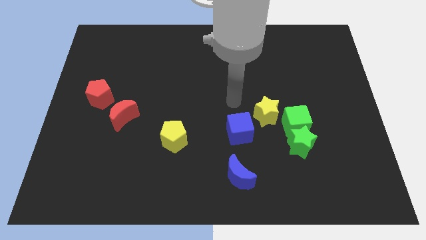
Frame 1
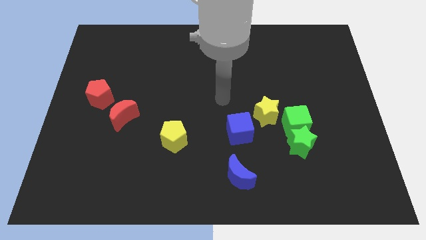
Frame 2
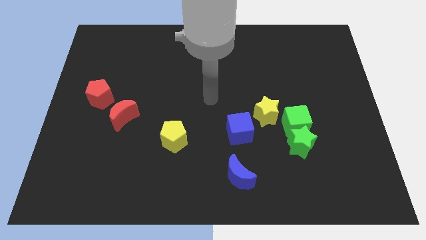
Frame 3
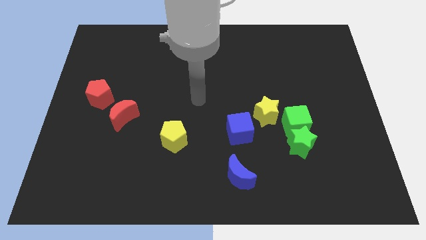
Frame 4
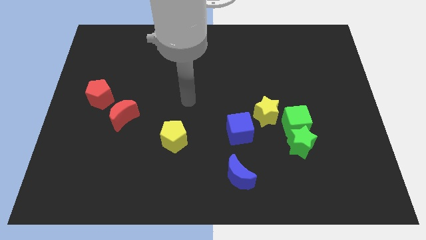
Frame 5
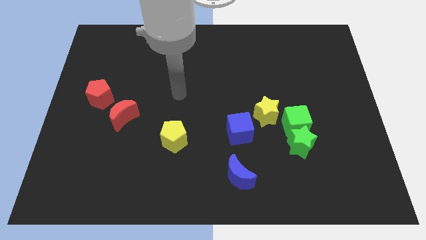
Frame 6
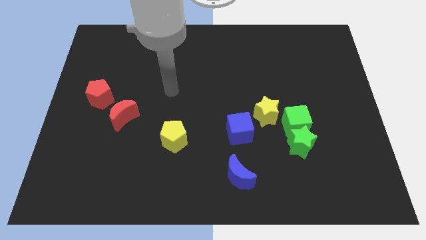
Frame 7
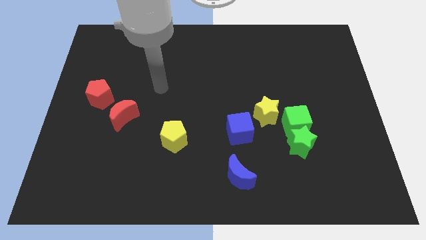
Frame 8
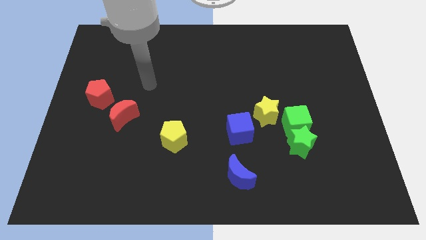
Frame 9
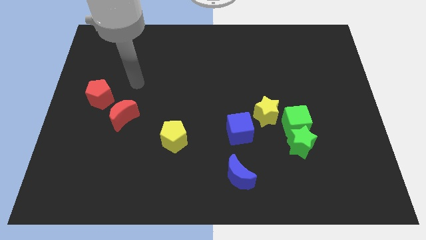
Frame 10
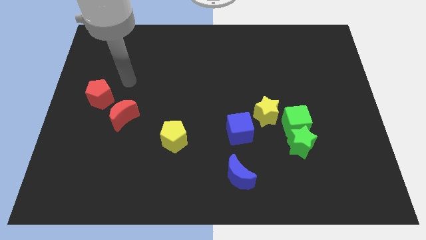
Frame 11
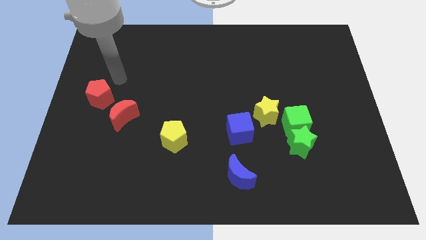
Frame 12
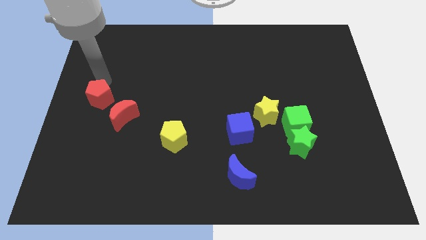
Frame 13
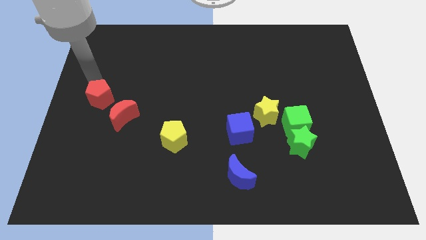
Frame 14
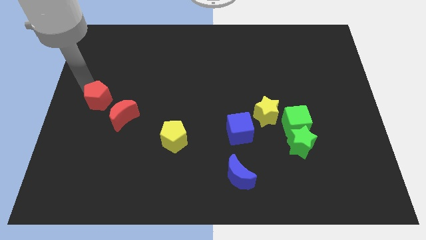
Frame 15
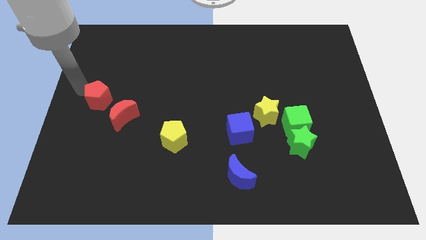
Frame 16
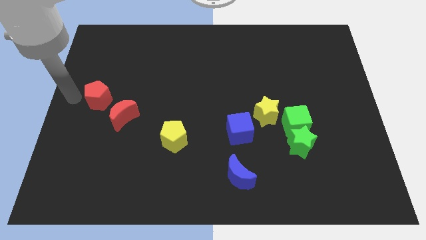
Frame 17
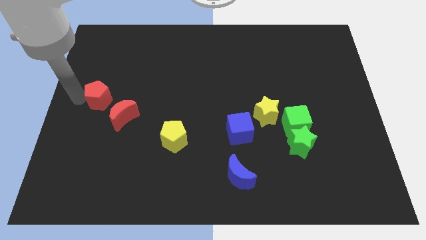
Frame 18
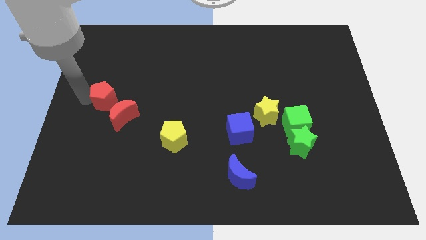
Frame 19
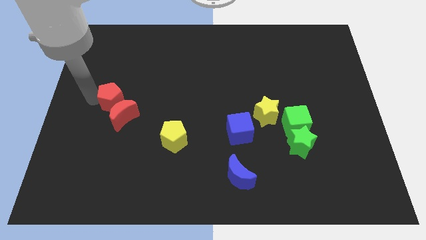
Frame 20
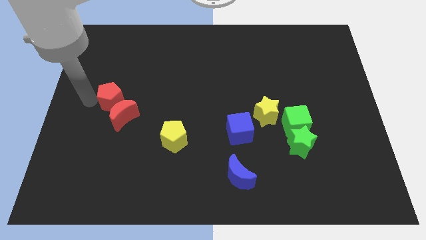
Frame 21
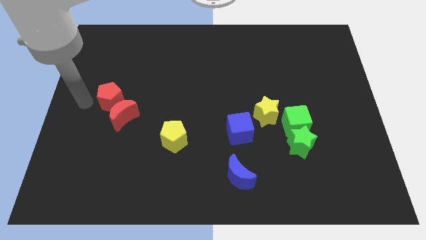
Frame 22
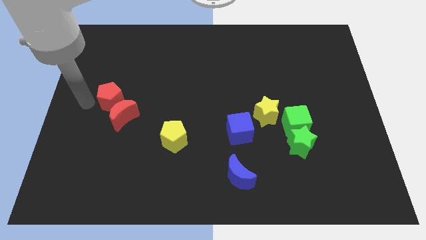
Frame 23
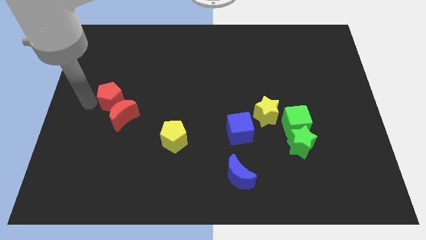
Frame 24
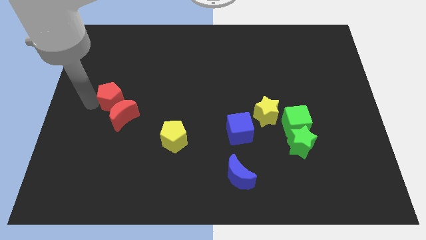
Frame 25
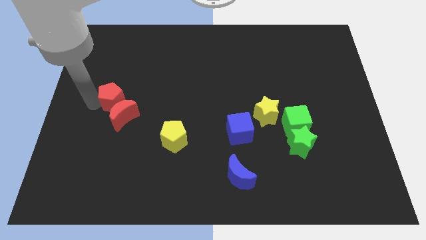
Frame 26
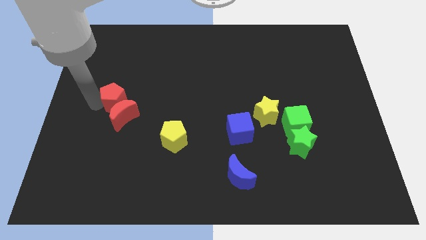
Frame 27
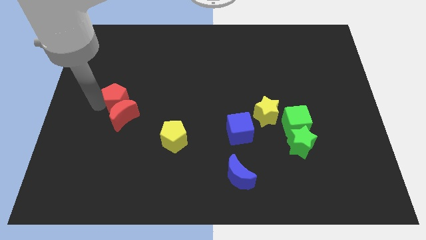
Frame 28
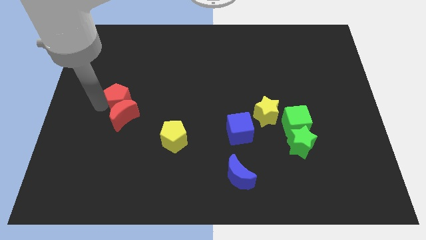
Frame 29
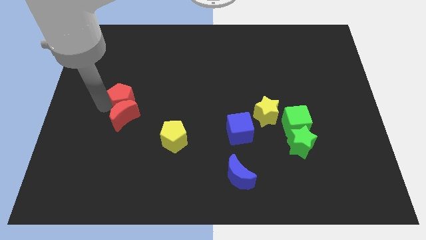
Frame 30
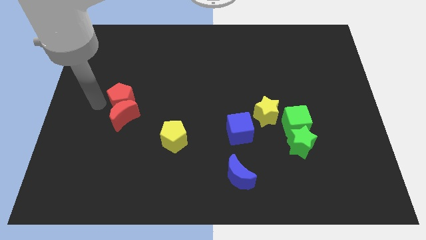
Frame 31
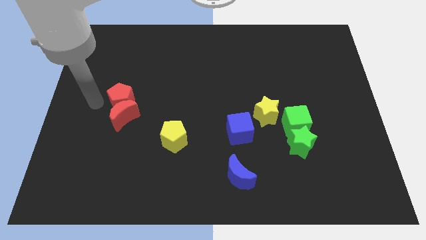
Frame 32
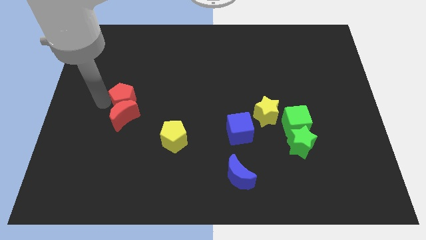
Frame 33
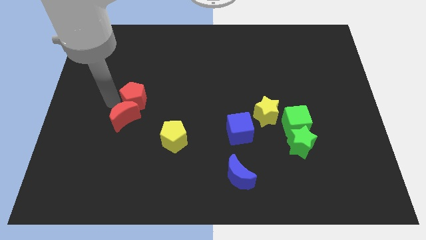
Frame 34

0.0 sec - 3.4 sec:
move the red pentagon right a little bit

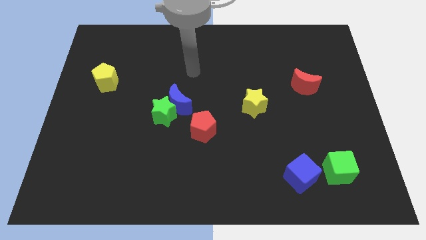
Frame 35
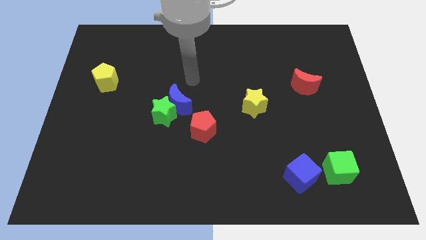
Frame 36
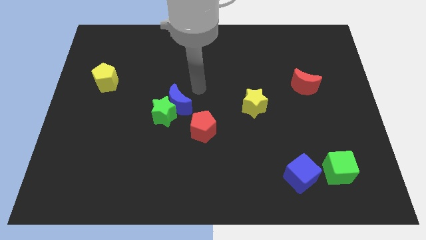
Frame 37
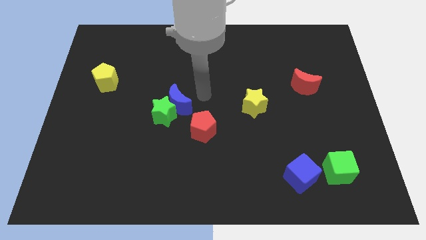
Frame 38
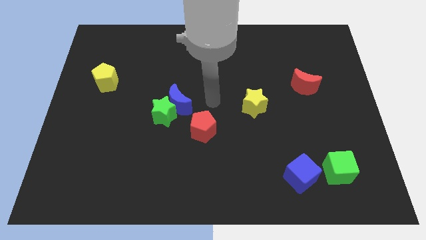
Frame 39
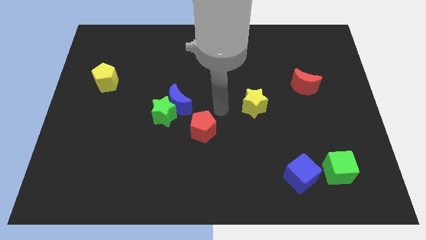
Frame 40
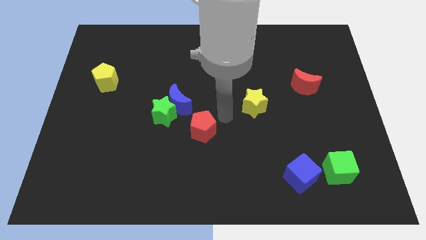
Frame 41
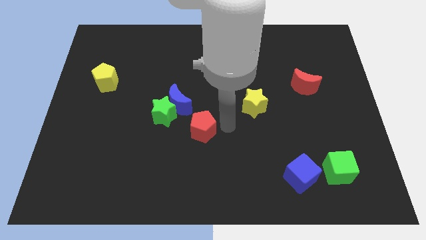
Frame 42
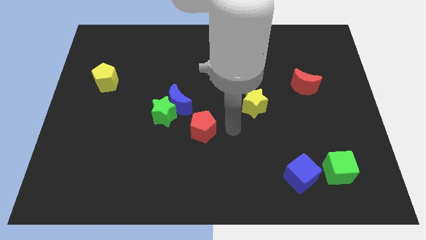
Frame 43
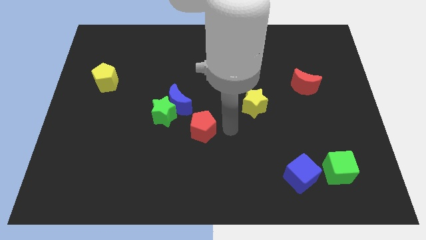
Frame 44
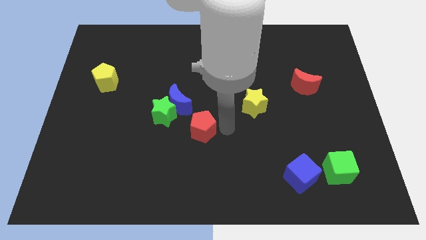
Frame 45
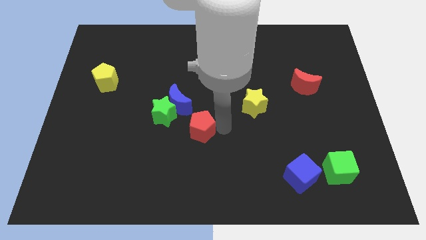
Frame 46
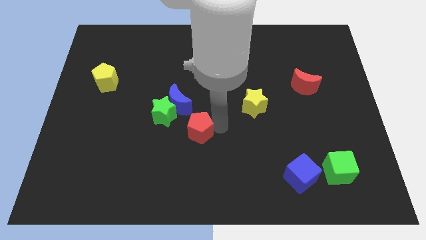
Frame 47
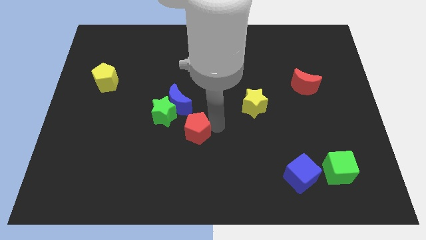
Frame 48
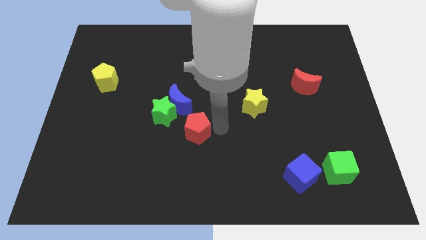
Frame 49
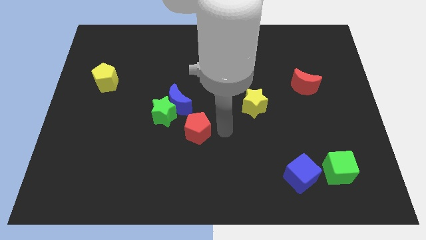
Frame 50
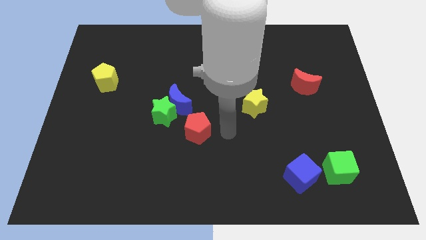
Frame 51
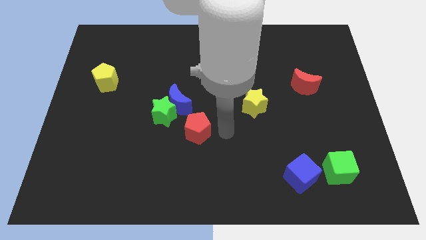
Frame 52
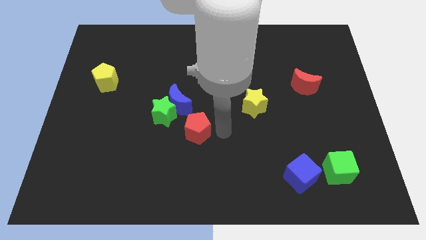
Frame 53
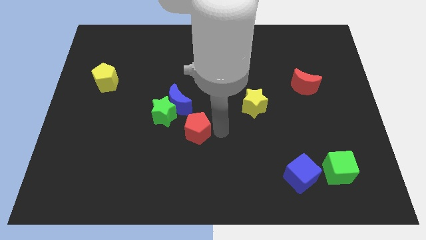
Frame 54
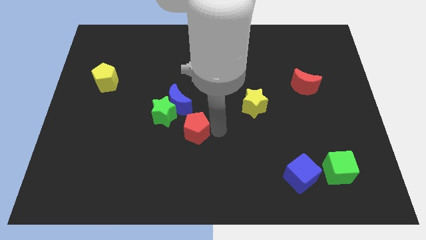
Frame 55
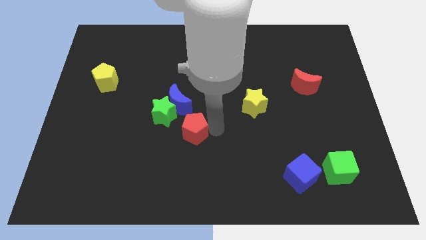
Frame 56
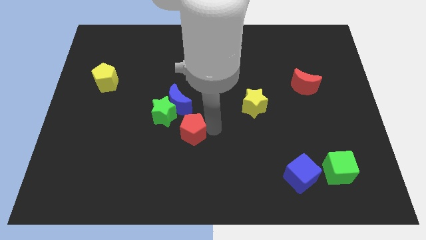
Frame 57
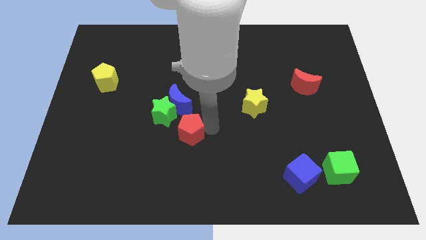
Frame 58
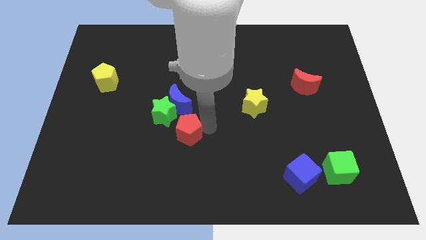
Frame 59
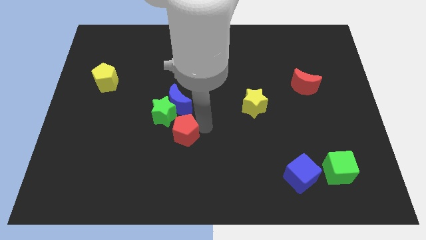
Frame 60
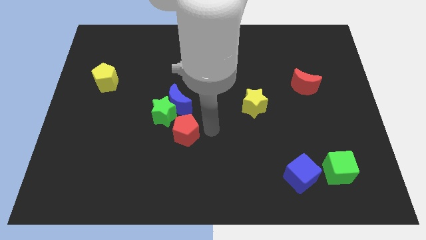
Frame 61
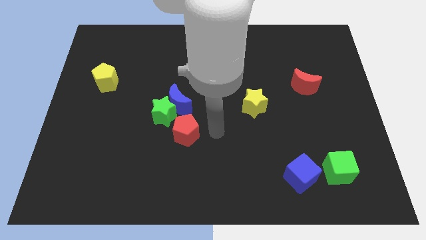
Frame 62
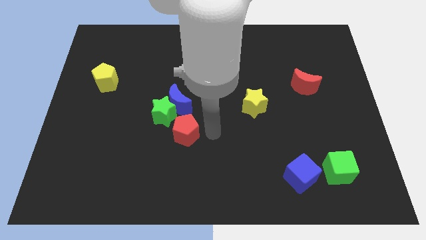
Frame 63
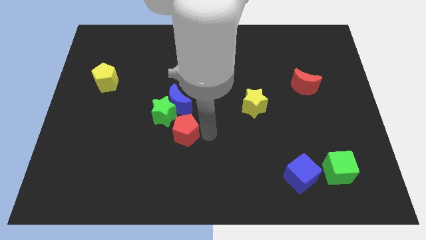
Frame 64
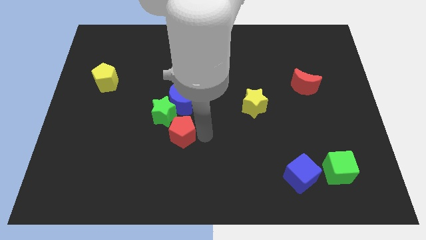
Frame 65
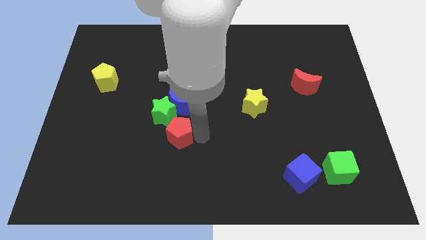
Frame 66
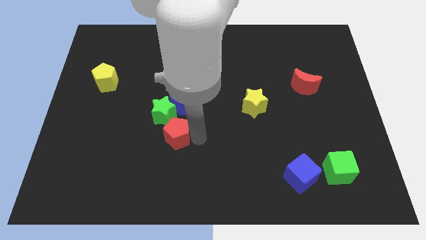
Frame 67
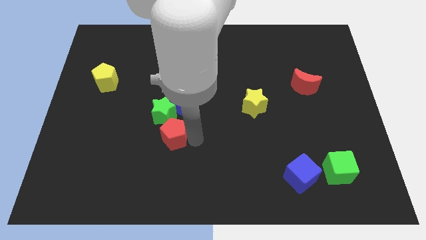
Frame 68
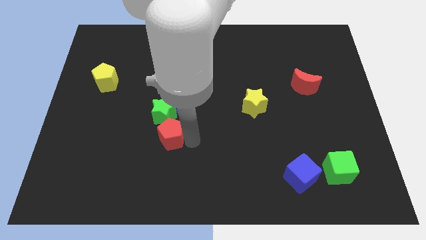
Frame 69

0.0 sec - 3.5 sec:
slightly push the red pentagon to the left

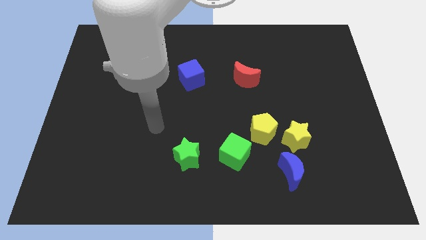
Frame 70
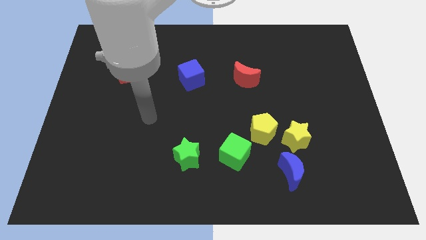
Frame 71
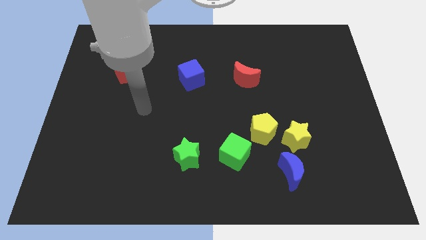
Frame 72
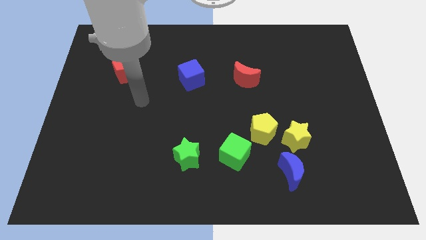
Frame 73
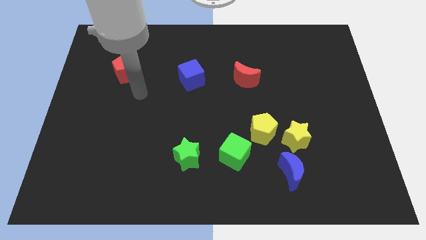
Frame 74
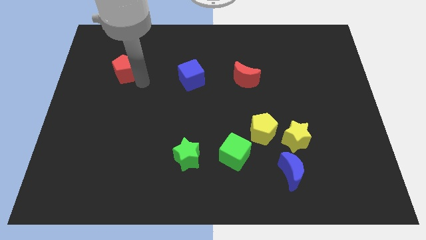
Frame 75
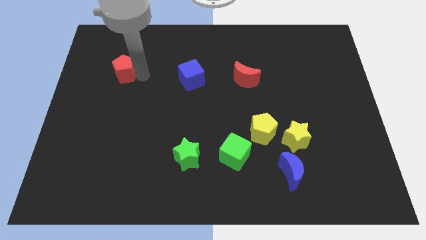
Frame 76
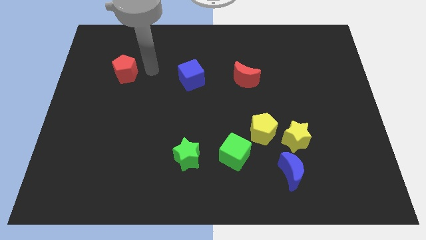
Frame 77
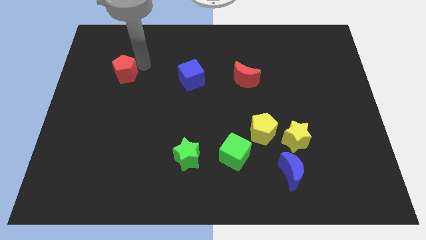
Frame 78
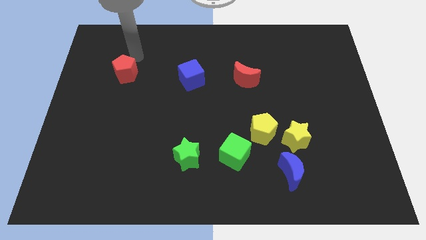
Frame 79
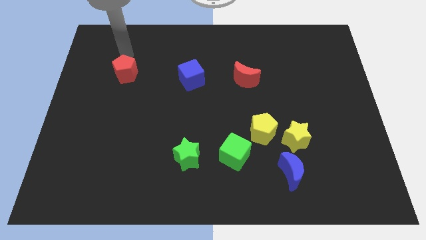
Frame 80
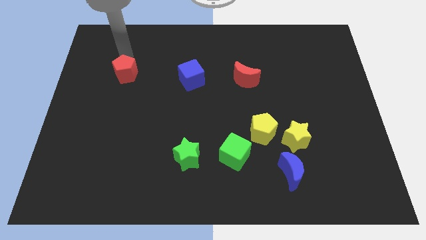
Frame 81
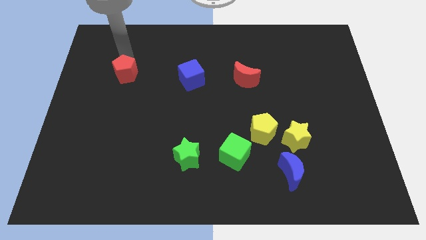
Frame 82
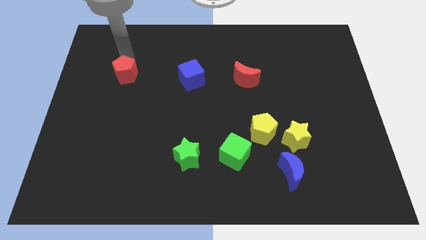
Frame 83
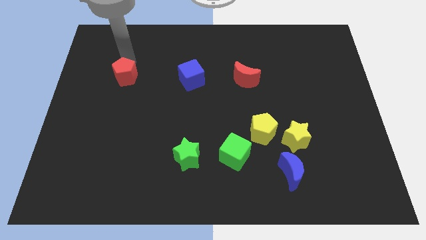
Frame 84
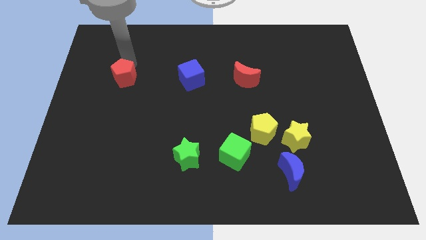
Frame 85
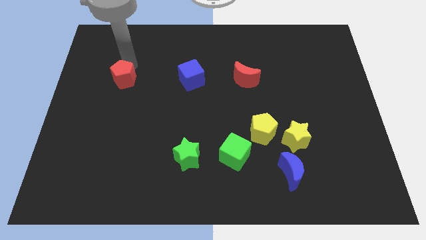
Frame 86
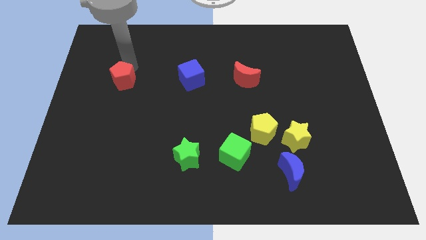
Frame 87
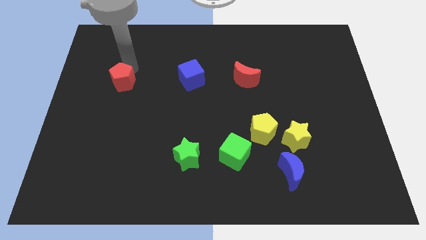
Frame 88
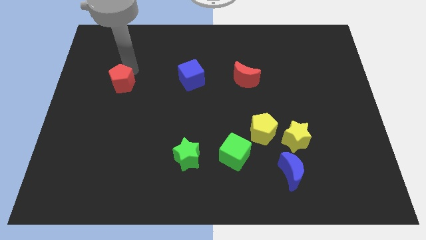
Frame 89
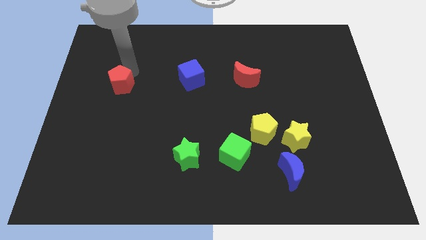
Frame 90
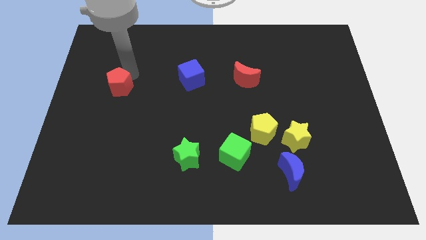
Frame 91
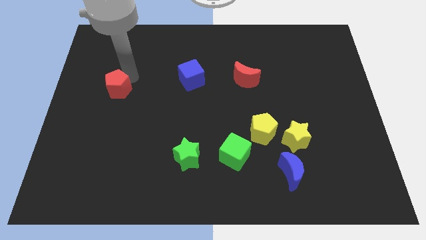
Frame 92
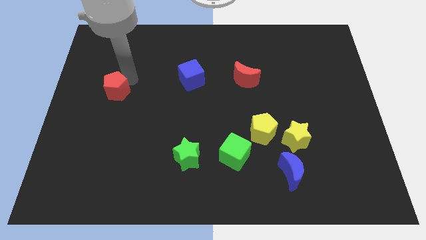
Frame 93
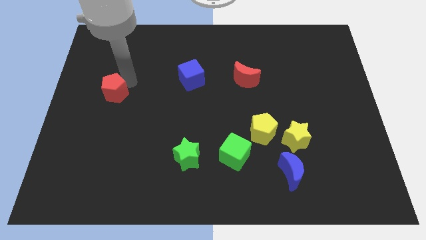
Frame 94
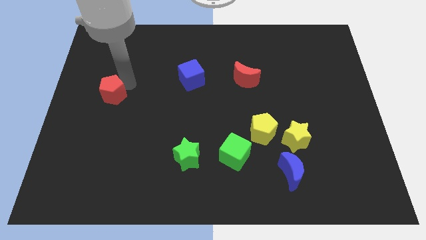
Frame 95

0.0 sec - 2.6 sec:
move the red pentagon a little bit downwards
